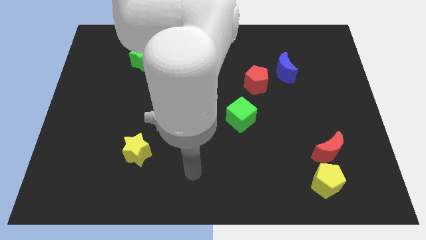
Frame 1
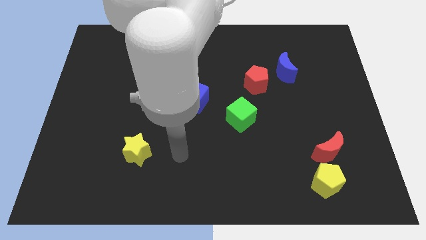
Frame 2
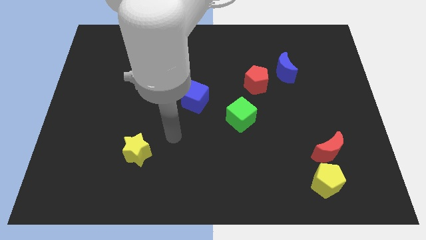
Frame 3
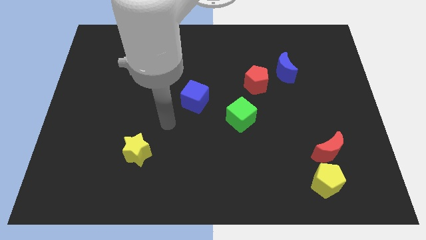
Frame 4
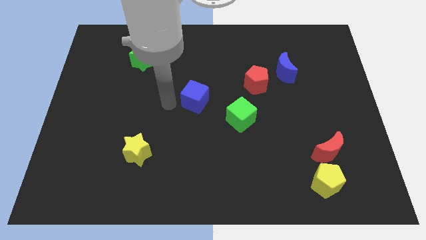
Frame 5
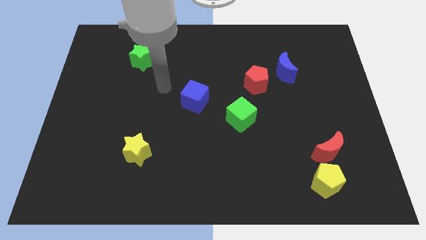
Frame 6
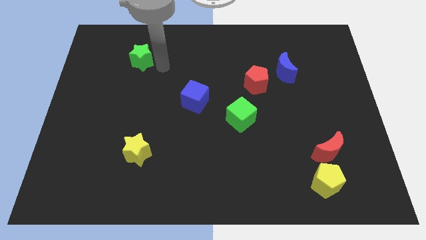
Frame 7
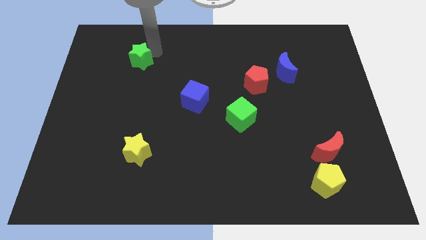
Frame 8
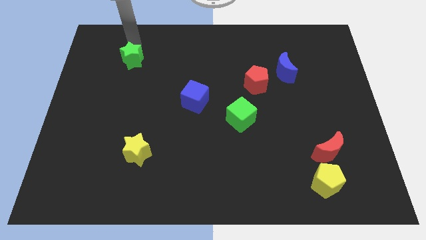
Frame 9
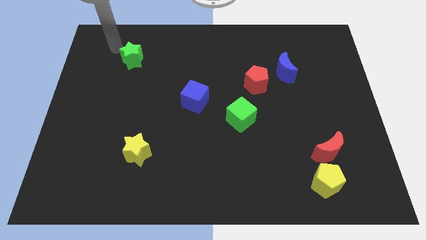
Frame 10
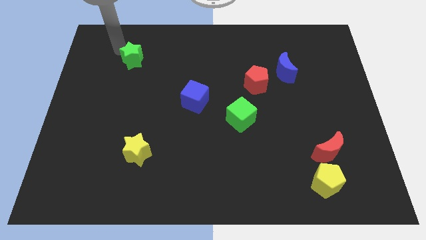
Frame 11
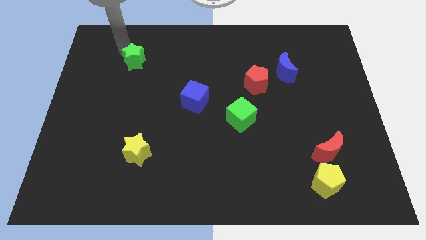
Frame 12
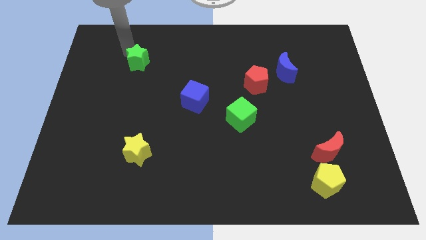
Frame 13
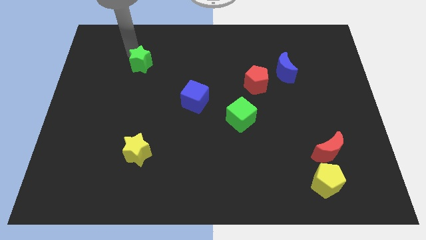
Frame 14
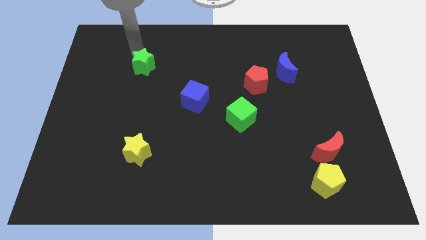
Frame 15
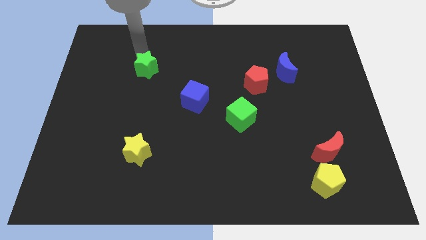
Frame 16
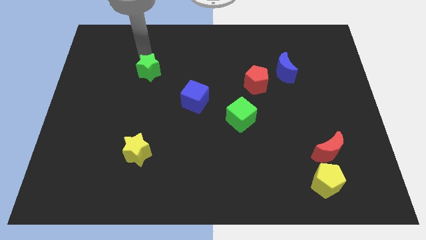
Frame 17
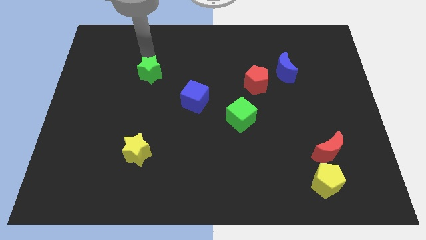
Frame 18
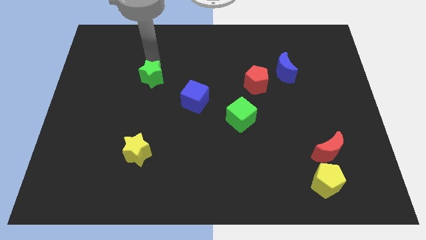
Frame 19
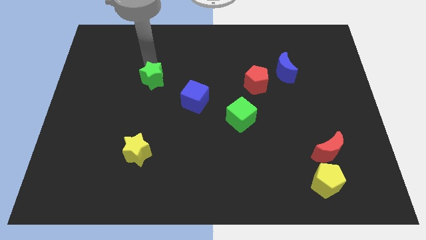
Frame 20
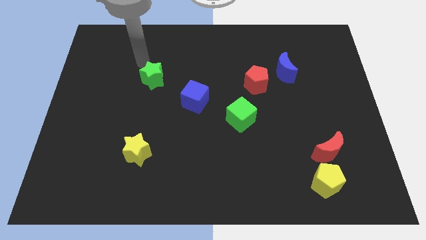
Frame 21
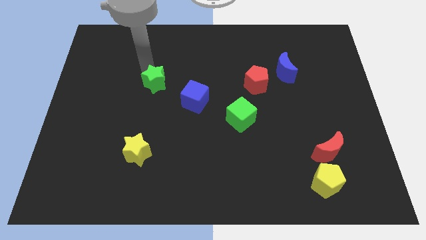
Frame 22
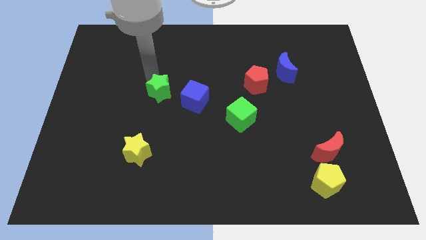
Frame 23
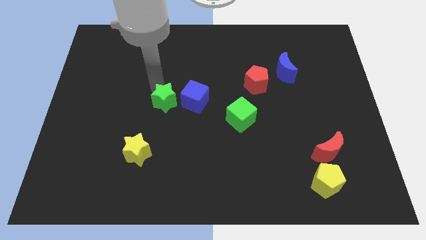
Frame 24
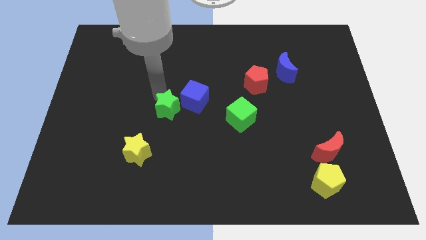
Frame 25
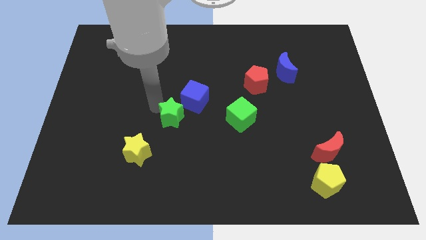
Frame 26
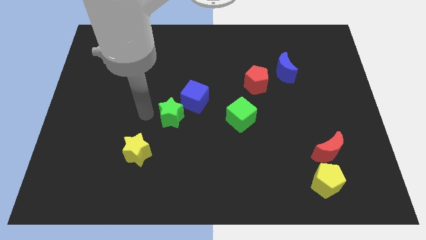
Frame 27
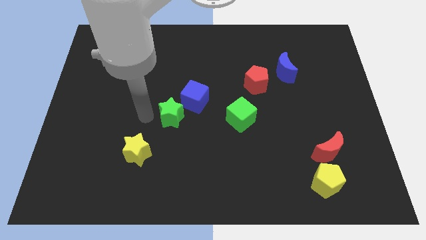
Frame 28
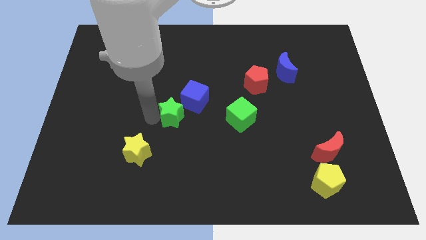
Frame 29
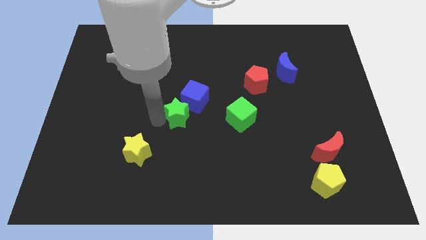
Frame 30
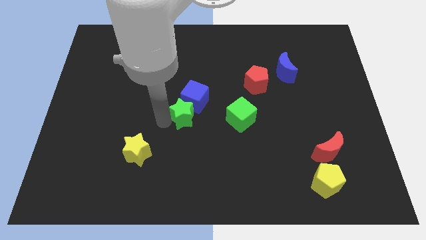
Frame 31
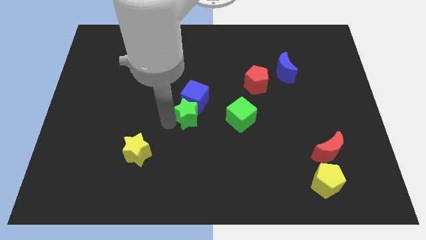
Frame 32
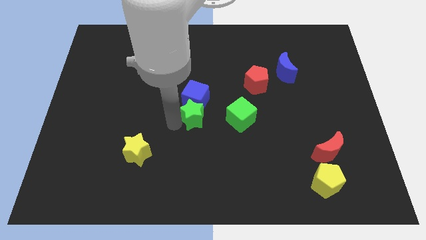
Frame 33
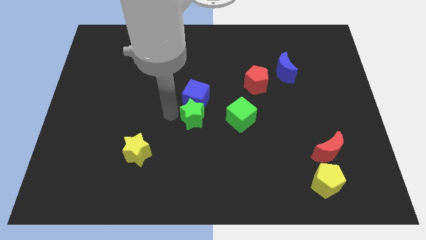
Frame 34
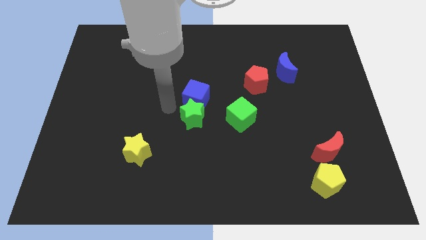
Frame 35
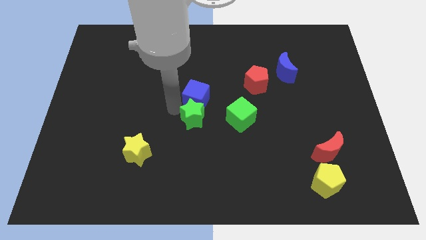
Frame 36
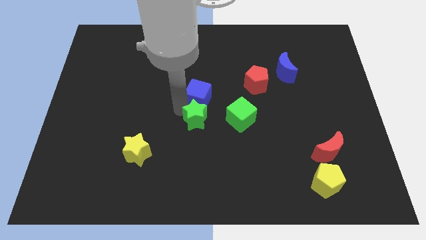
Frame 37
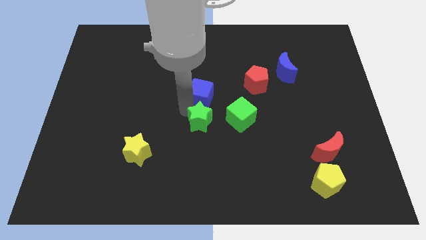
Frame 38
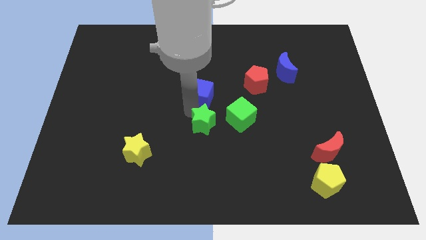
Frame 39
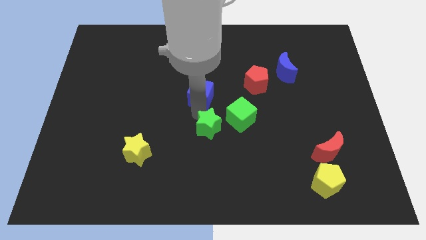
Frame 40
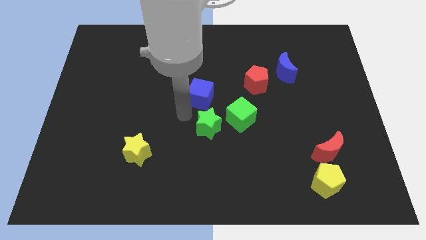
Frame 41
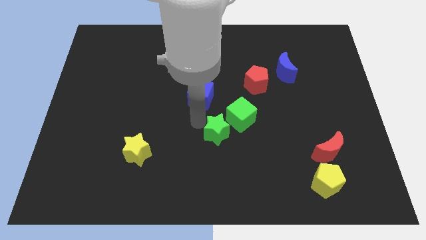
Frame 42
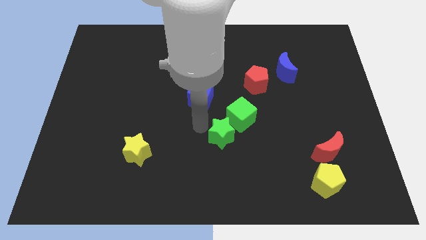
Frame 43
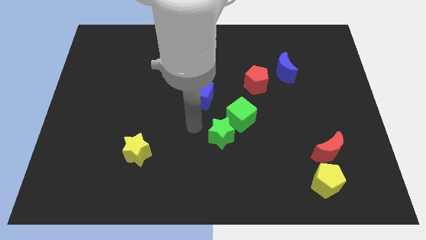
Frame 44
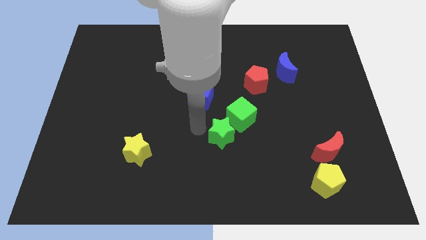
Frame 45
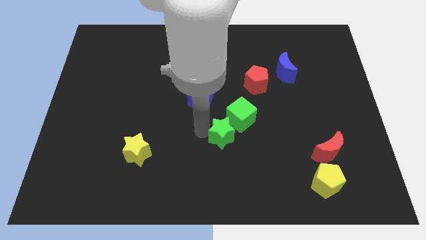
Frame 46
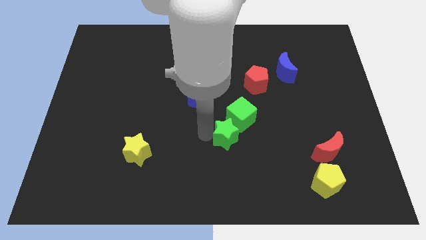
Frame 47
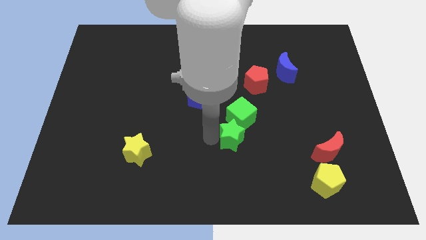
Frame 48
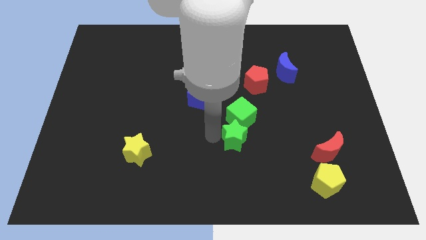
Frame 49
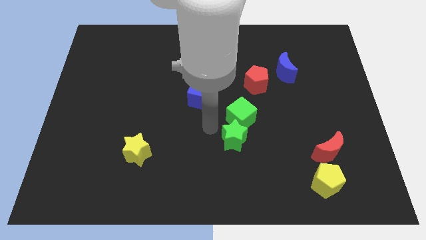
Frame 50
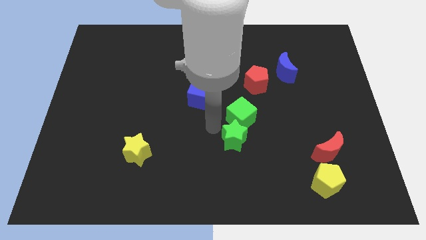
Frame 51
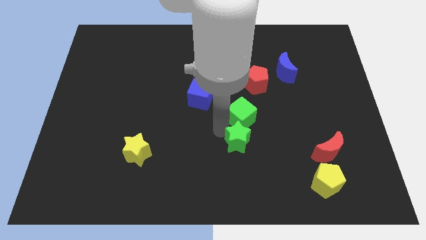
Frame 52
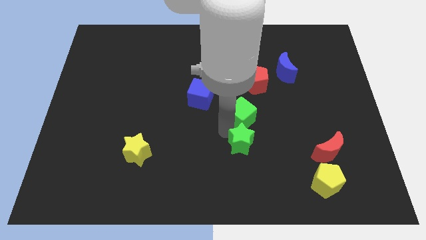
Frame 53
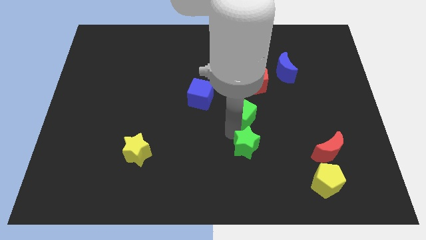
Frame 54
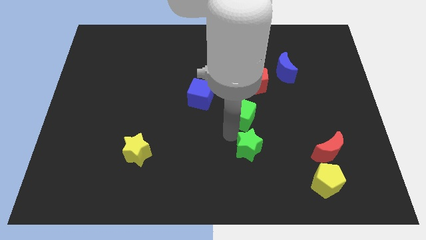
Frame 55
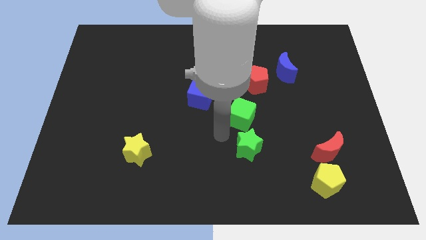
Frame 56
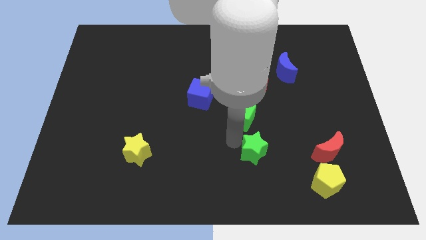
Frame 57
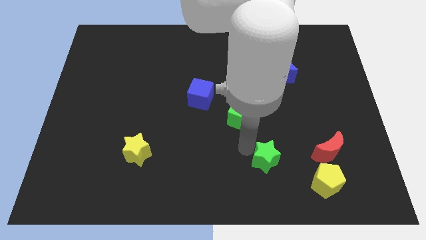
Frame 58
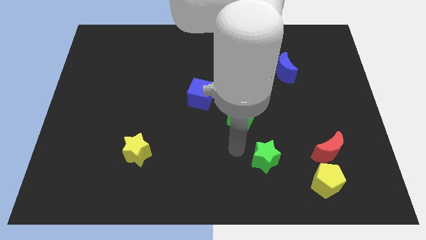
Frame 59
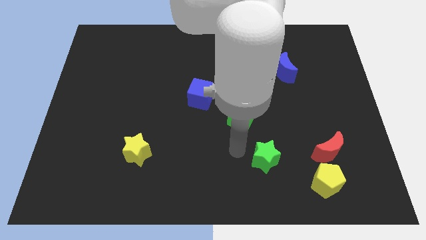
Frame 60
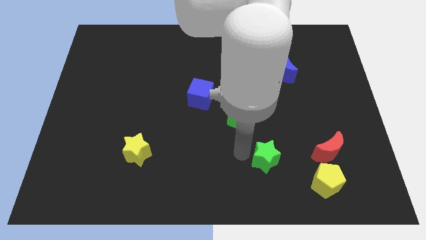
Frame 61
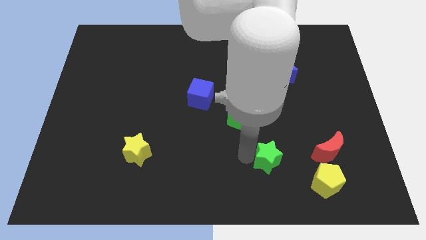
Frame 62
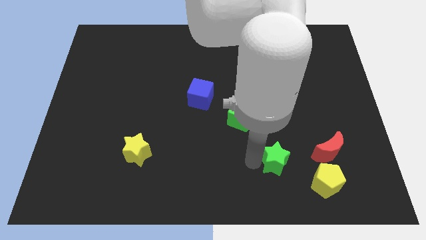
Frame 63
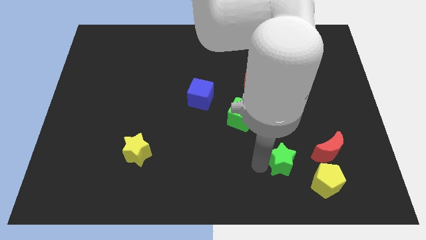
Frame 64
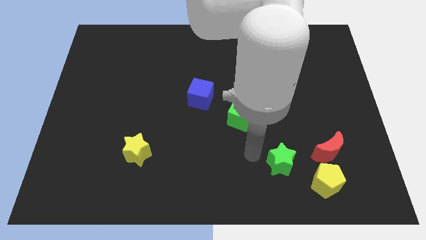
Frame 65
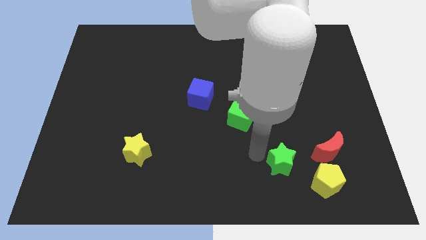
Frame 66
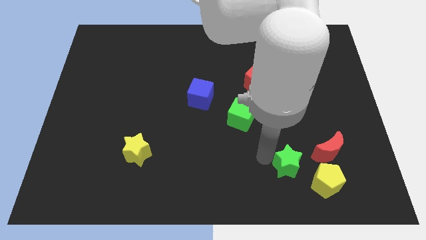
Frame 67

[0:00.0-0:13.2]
move the green star to the bottom left of the red moon
